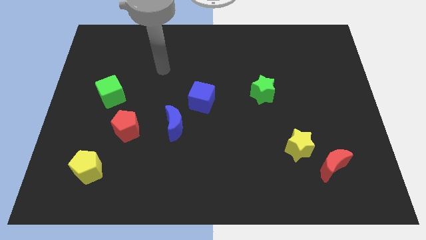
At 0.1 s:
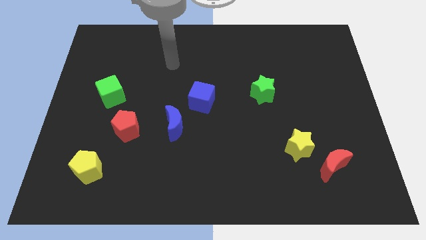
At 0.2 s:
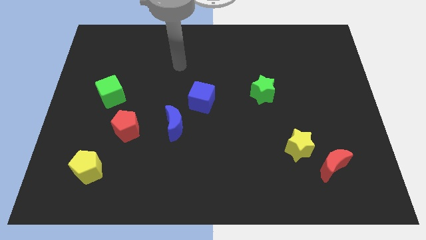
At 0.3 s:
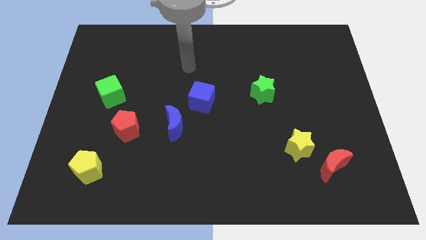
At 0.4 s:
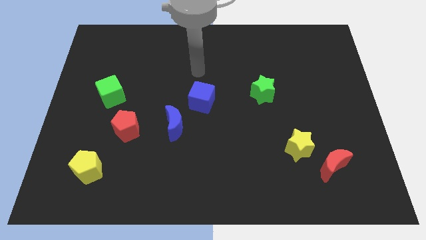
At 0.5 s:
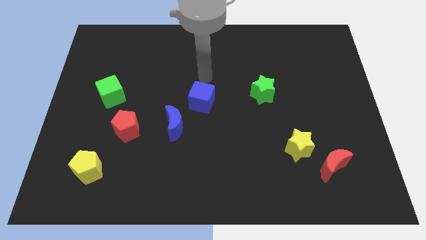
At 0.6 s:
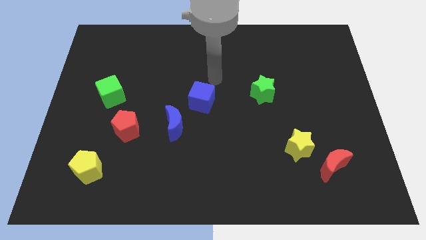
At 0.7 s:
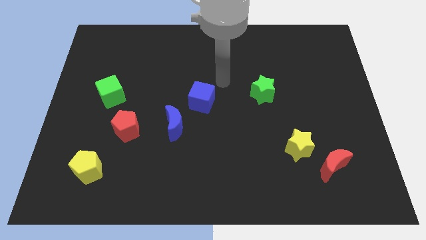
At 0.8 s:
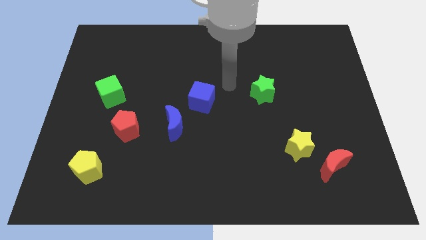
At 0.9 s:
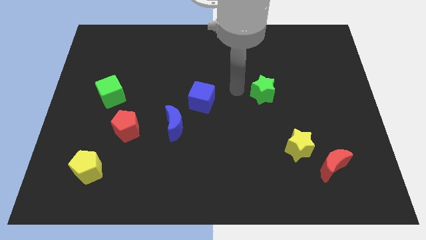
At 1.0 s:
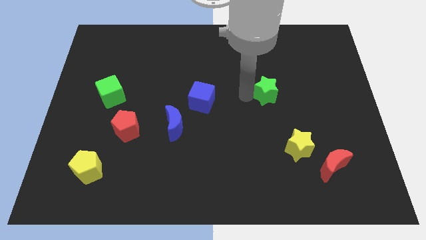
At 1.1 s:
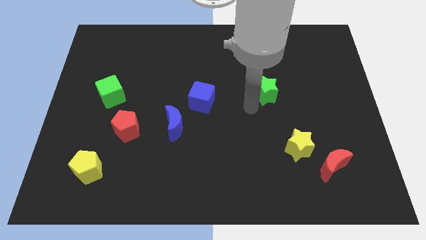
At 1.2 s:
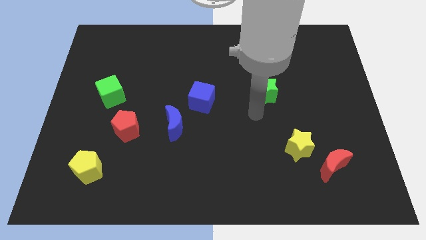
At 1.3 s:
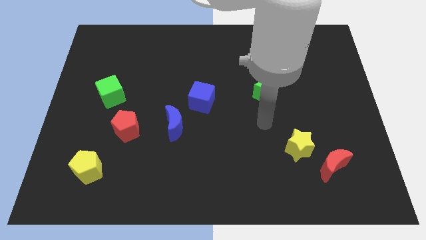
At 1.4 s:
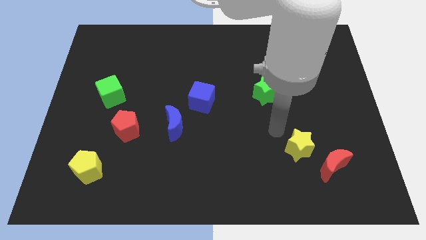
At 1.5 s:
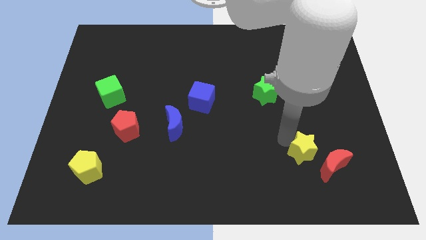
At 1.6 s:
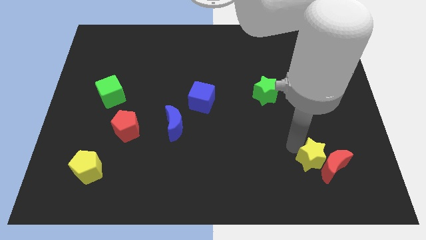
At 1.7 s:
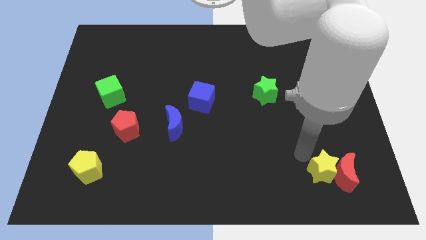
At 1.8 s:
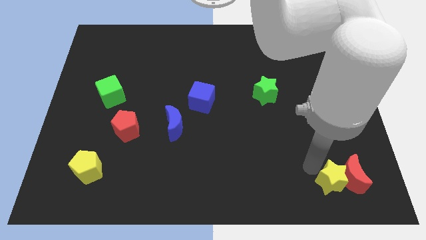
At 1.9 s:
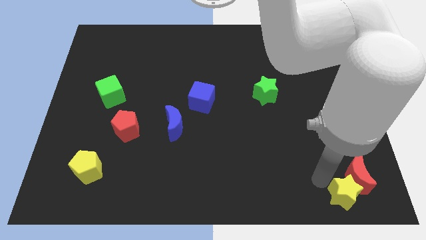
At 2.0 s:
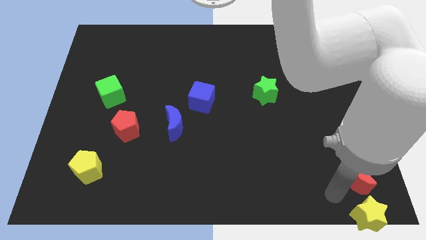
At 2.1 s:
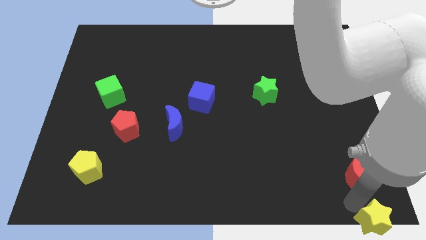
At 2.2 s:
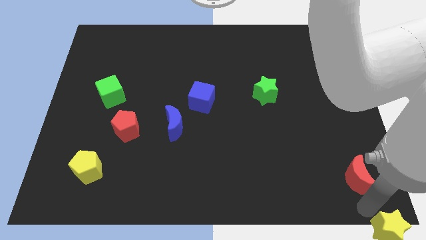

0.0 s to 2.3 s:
pull the red moon apart from the yellow star

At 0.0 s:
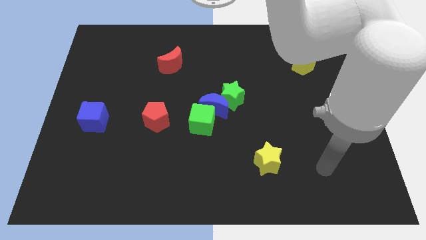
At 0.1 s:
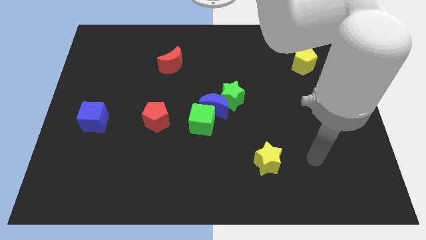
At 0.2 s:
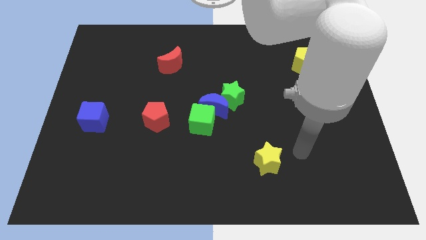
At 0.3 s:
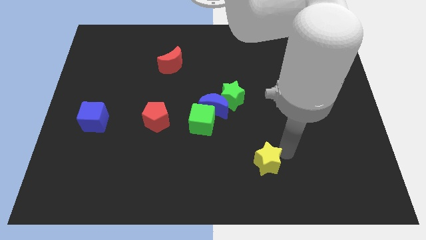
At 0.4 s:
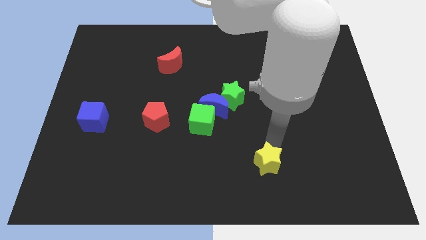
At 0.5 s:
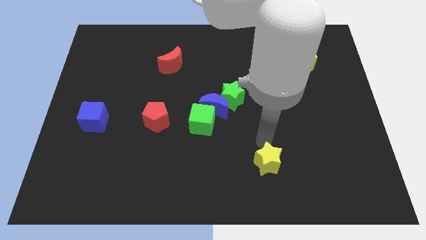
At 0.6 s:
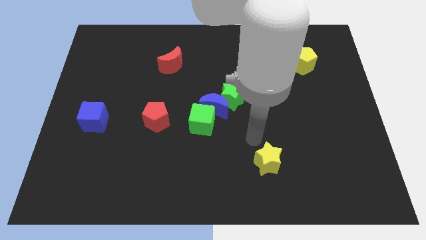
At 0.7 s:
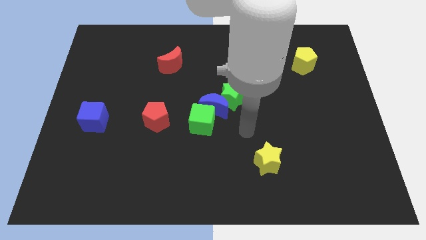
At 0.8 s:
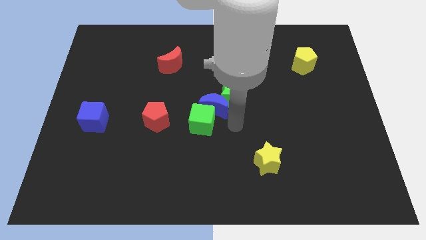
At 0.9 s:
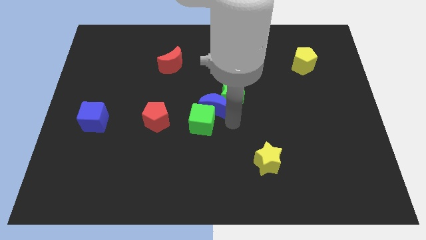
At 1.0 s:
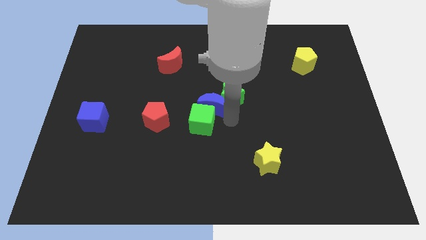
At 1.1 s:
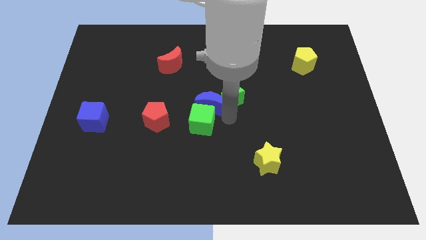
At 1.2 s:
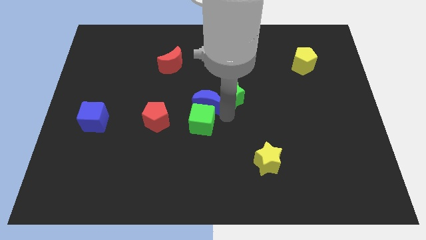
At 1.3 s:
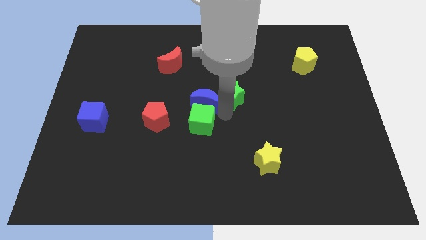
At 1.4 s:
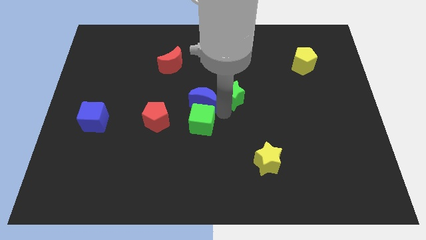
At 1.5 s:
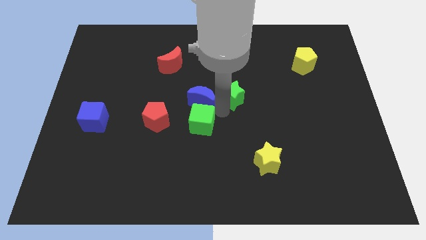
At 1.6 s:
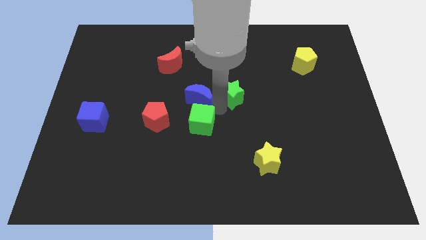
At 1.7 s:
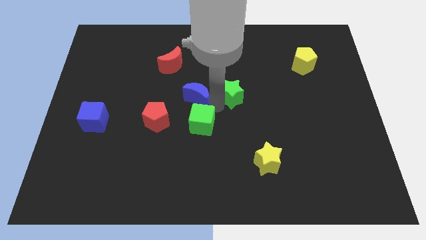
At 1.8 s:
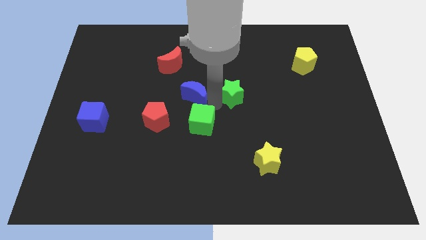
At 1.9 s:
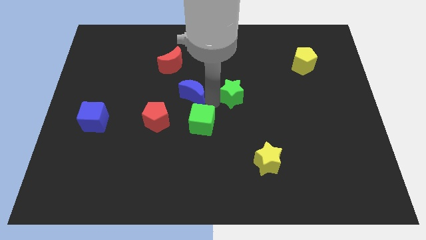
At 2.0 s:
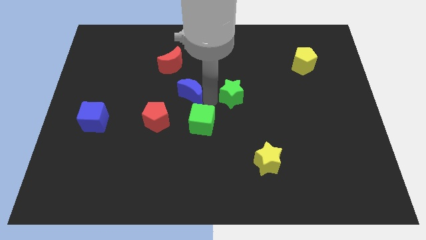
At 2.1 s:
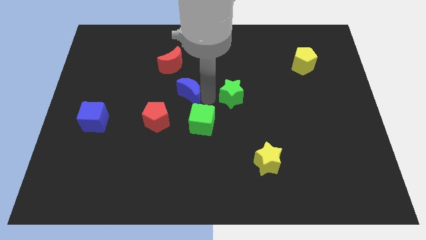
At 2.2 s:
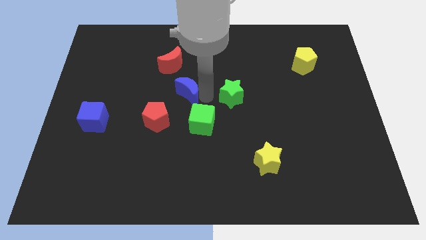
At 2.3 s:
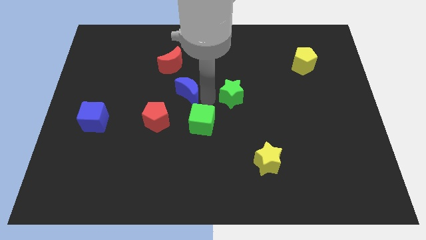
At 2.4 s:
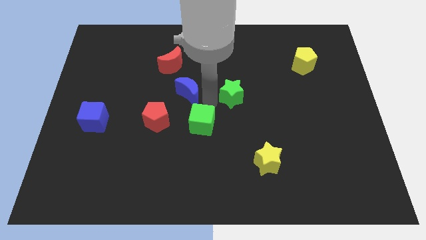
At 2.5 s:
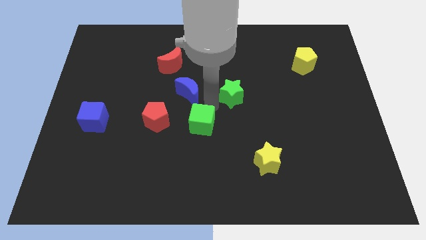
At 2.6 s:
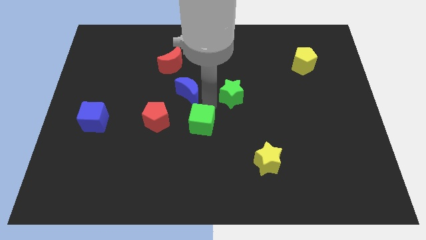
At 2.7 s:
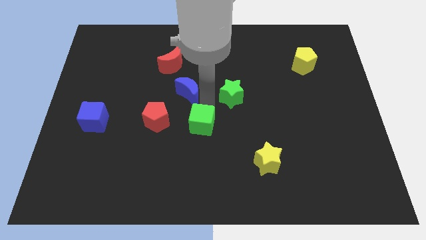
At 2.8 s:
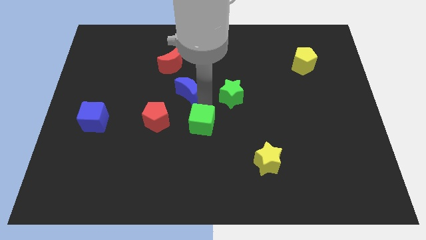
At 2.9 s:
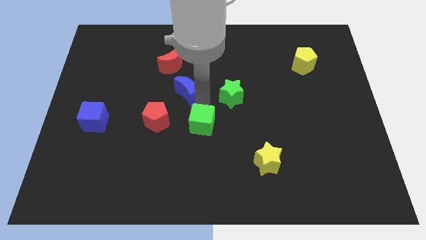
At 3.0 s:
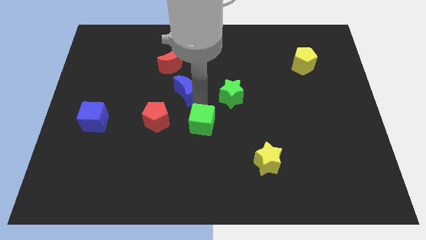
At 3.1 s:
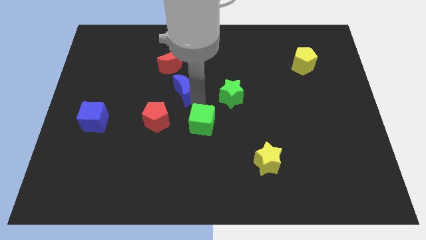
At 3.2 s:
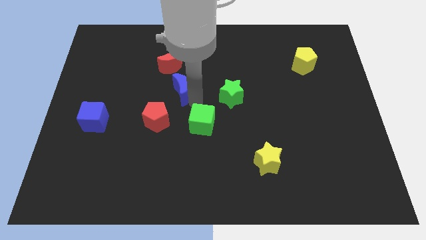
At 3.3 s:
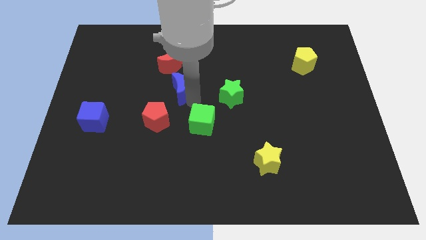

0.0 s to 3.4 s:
move the blue moon away from the green star and green cube

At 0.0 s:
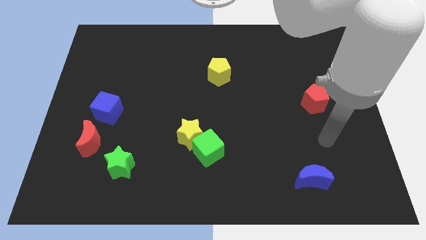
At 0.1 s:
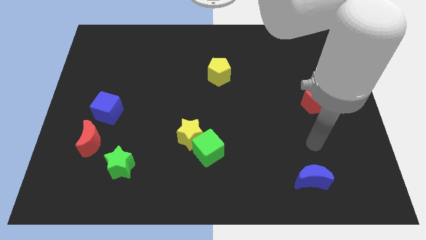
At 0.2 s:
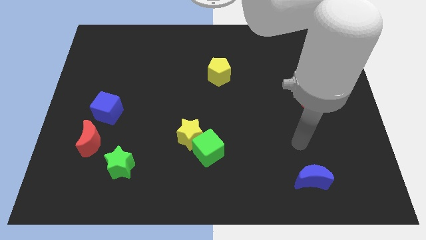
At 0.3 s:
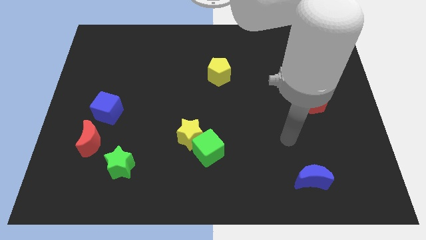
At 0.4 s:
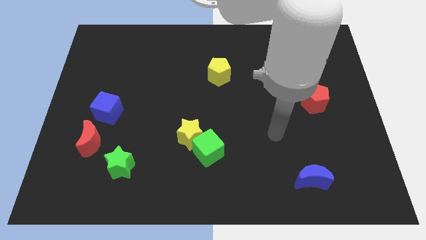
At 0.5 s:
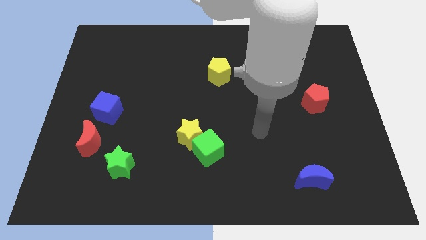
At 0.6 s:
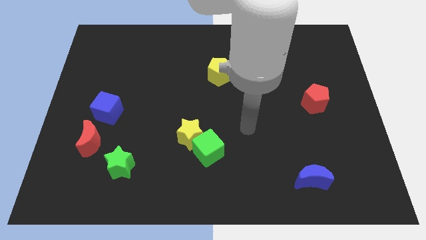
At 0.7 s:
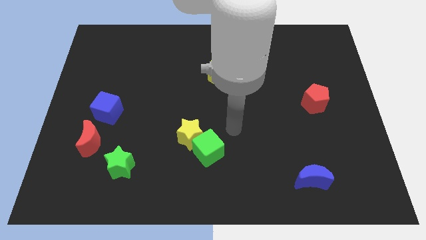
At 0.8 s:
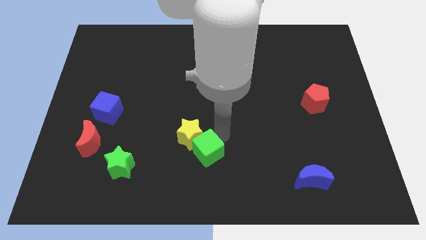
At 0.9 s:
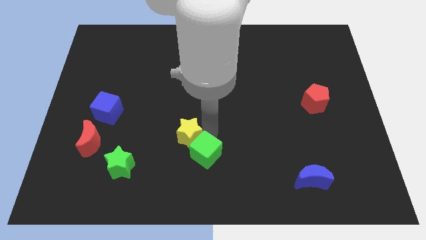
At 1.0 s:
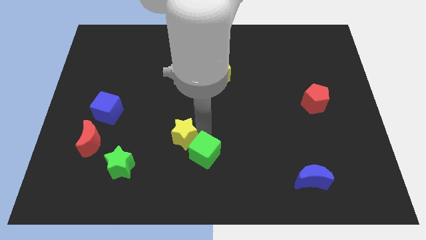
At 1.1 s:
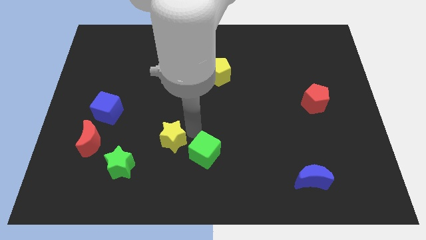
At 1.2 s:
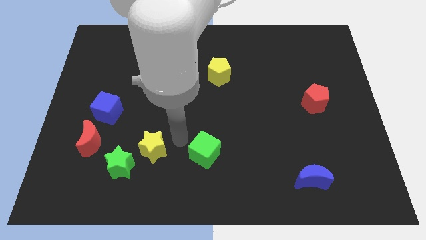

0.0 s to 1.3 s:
pull the green cube apart from the yellow star

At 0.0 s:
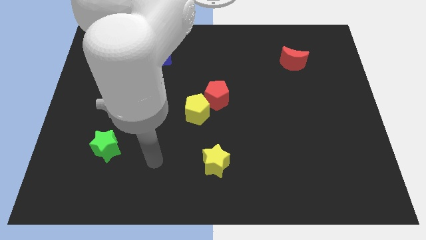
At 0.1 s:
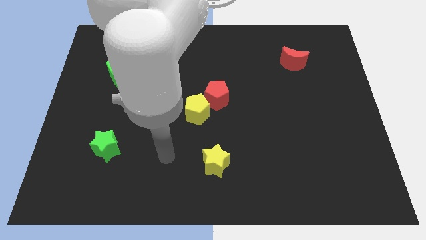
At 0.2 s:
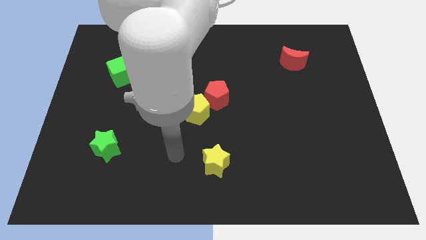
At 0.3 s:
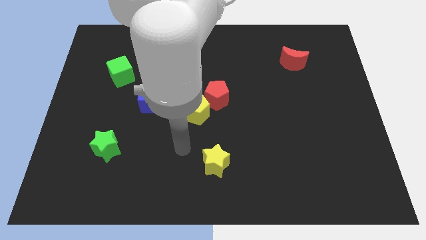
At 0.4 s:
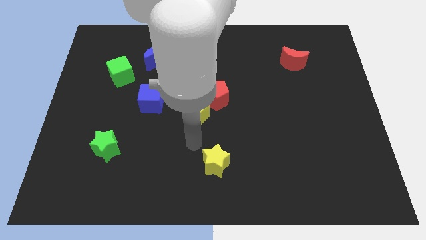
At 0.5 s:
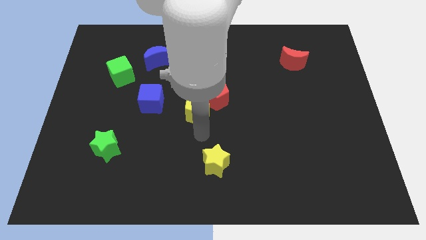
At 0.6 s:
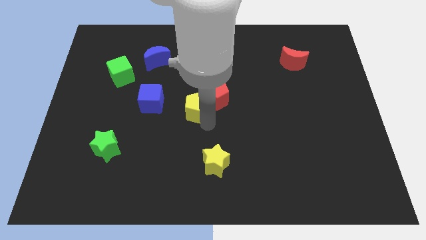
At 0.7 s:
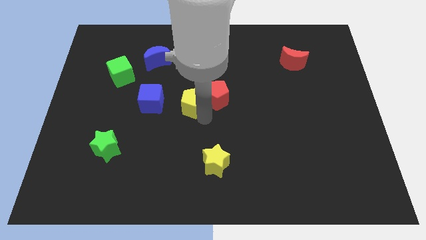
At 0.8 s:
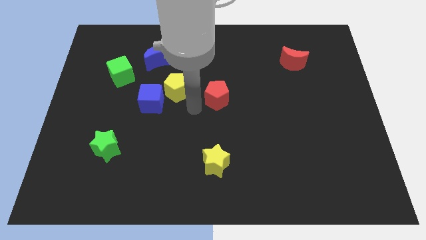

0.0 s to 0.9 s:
move the red pentagon away from the yellow pentagon

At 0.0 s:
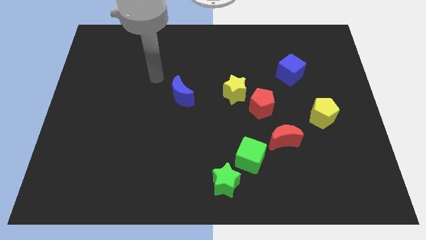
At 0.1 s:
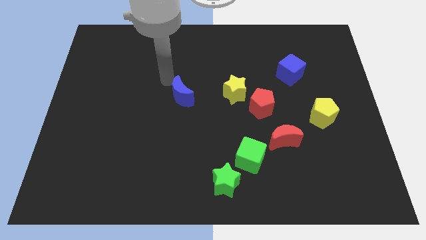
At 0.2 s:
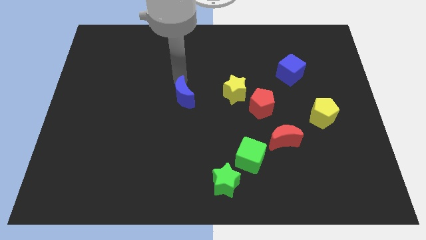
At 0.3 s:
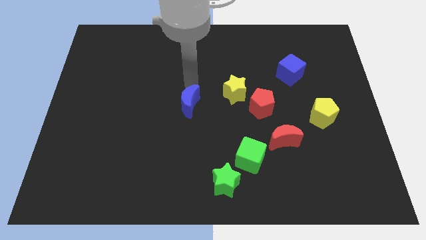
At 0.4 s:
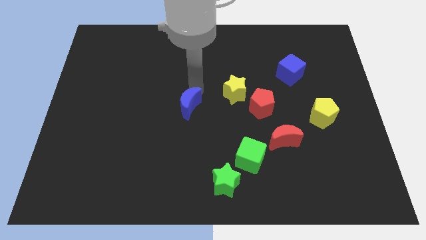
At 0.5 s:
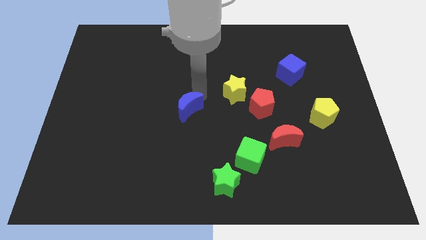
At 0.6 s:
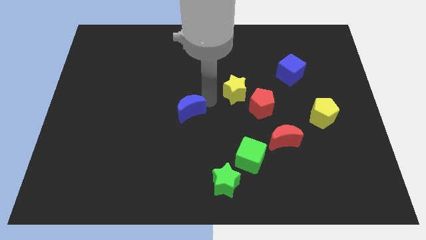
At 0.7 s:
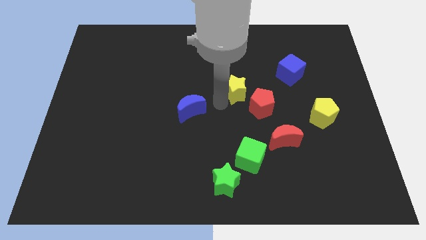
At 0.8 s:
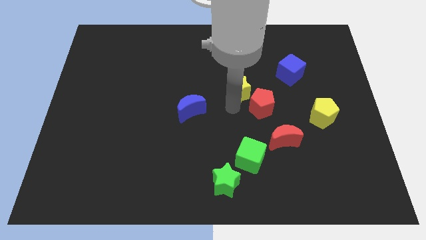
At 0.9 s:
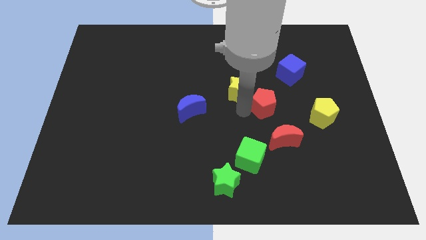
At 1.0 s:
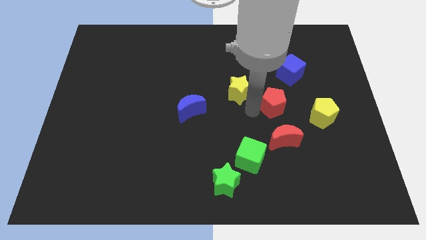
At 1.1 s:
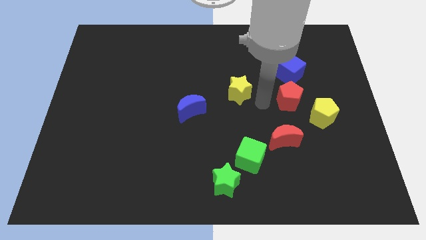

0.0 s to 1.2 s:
pull the yellow star apart from the red pentagon
